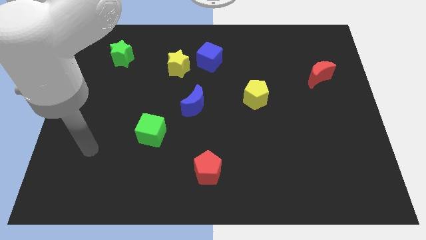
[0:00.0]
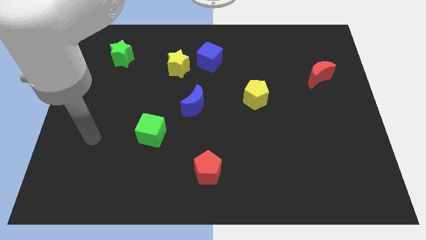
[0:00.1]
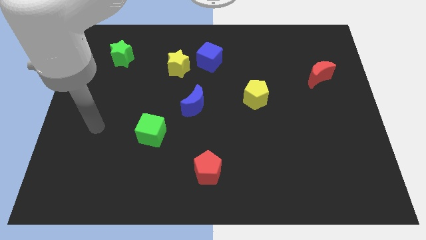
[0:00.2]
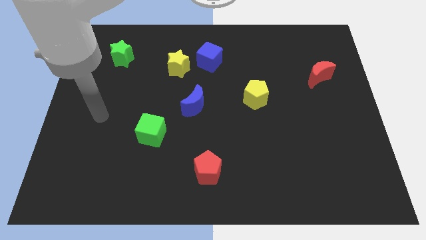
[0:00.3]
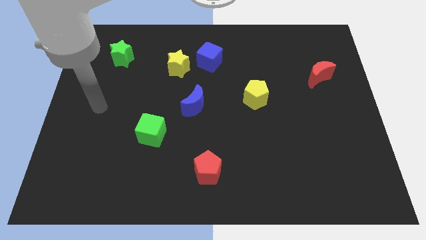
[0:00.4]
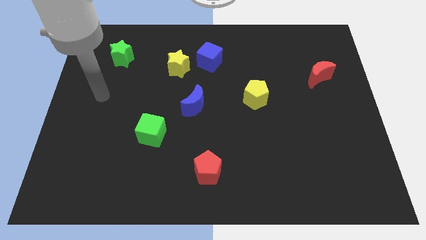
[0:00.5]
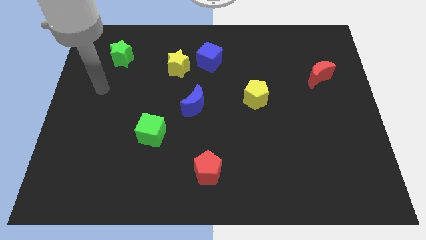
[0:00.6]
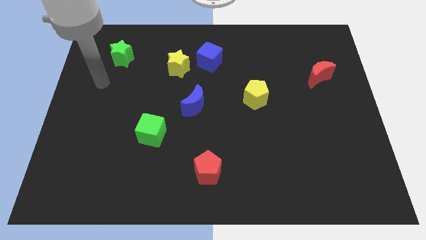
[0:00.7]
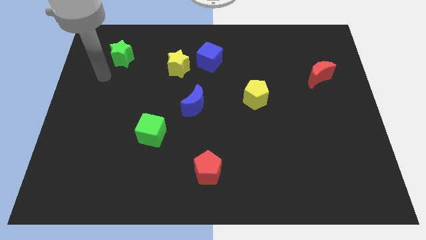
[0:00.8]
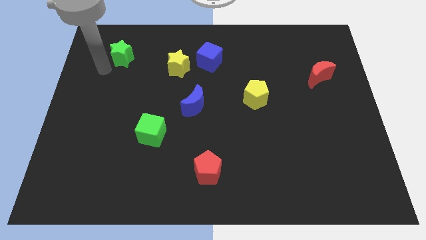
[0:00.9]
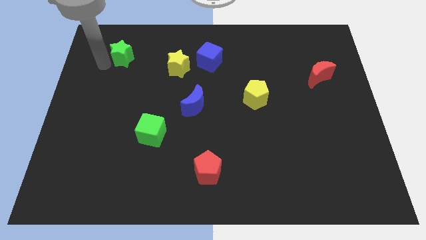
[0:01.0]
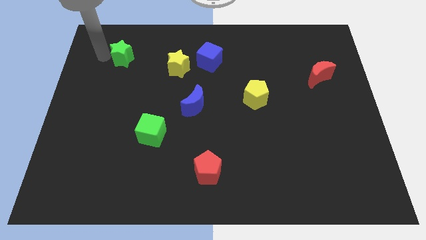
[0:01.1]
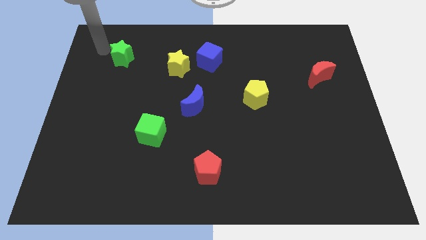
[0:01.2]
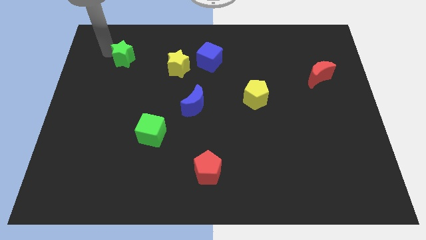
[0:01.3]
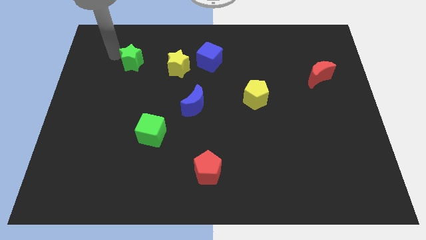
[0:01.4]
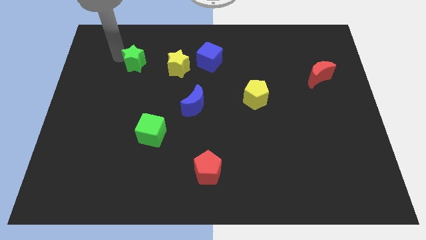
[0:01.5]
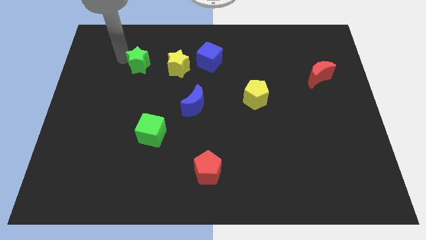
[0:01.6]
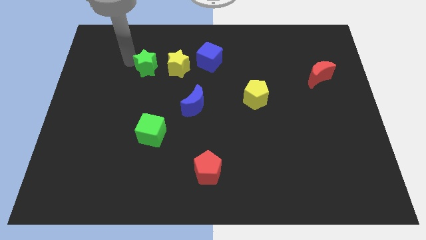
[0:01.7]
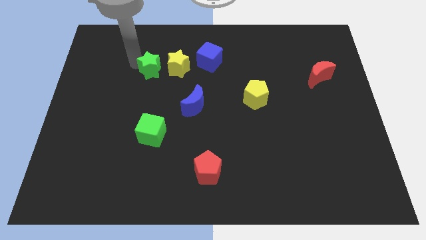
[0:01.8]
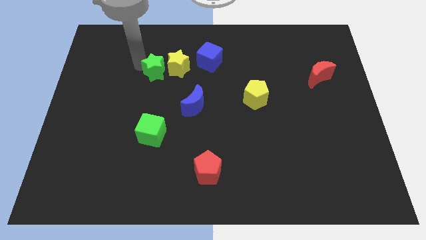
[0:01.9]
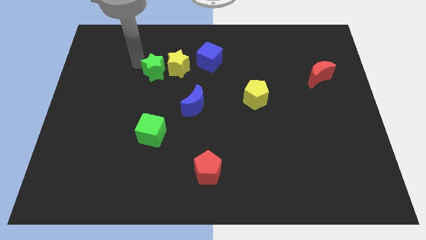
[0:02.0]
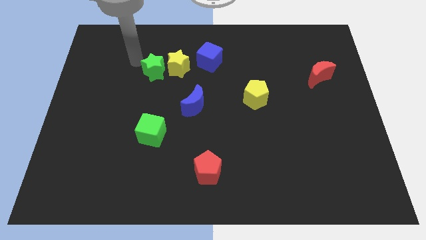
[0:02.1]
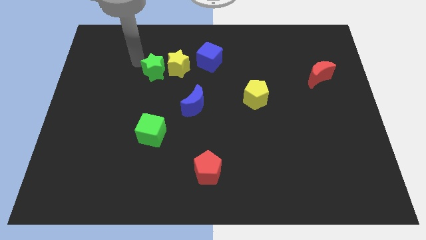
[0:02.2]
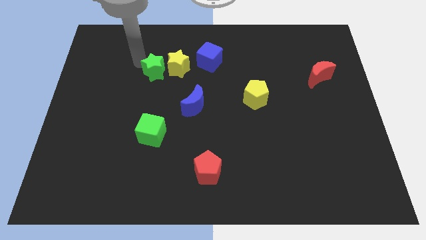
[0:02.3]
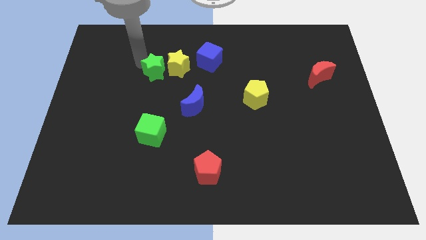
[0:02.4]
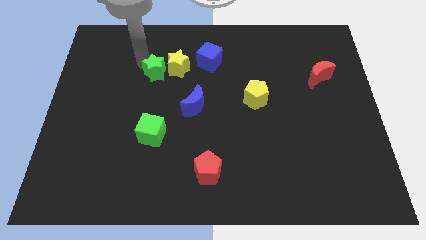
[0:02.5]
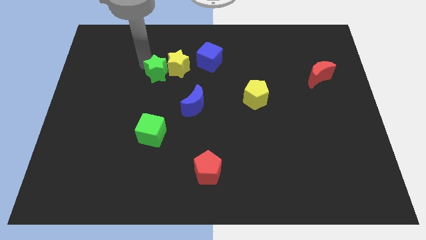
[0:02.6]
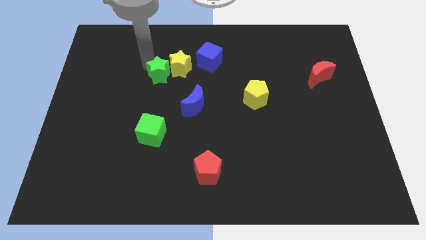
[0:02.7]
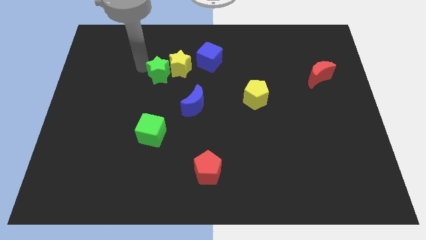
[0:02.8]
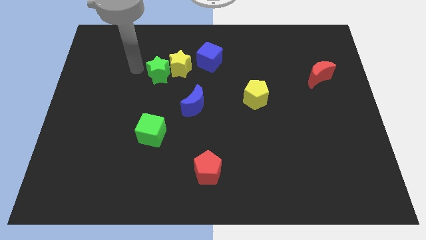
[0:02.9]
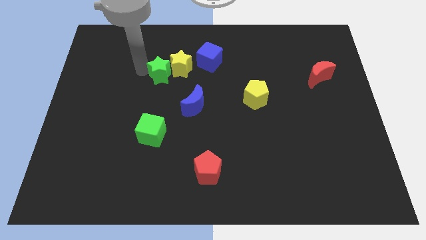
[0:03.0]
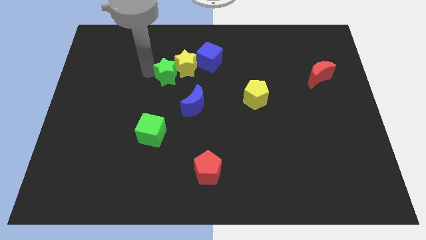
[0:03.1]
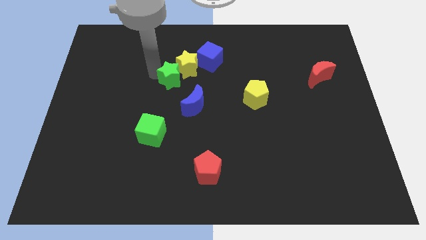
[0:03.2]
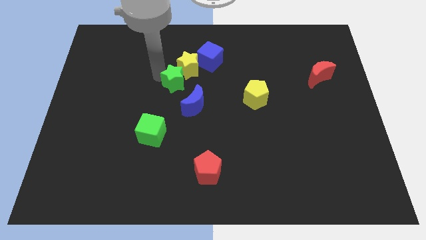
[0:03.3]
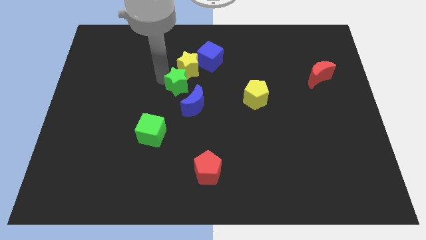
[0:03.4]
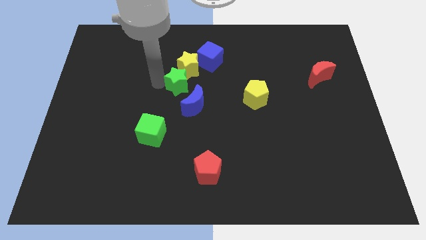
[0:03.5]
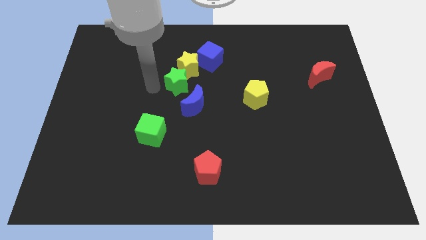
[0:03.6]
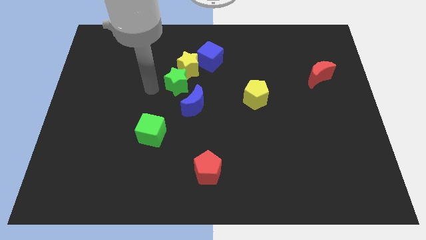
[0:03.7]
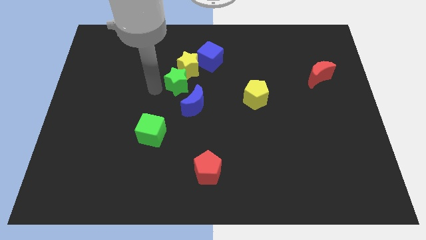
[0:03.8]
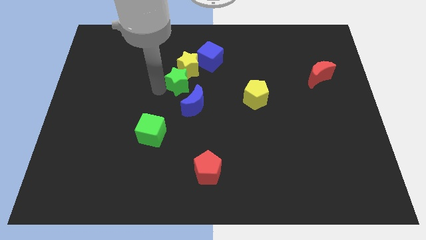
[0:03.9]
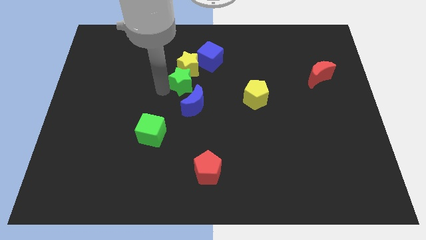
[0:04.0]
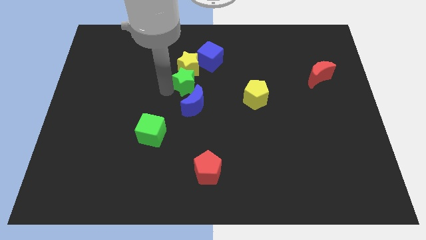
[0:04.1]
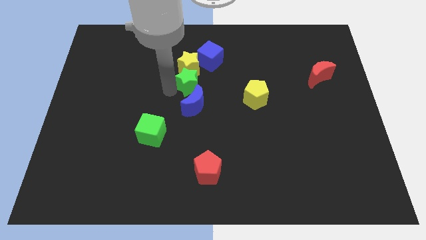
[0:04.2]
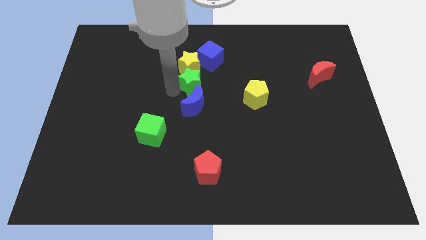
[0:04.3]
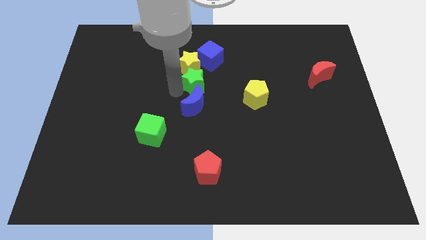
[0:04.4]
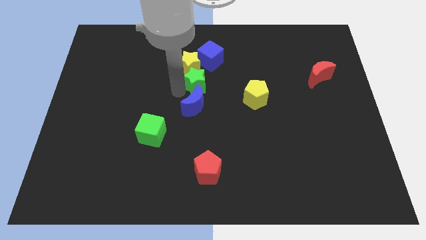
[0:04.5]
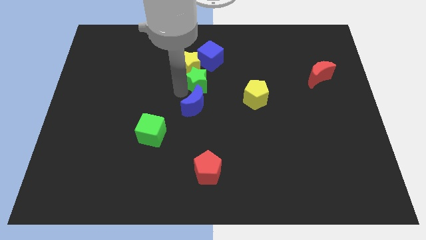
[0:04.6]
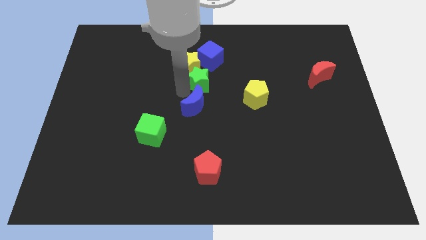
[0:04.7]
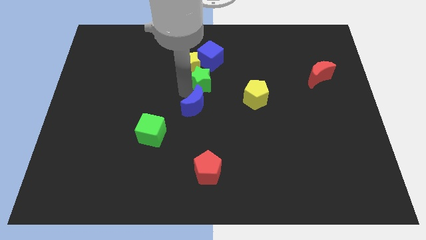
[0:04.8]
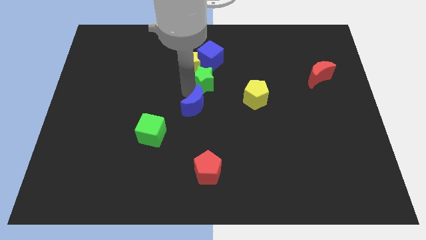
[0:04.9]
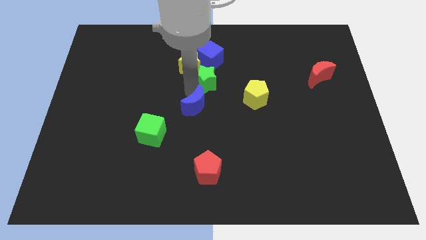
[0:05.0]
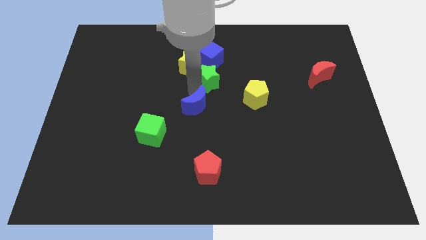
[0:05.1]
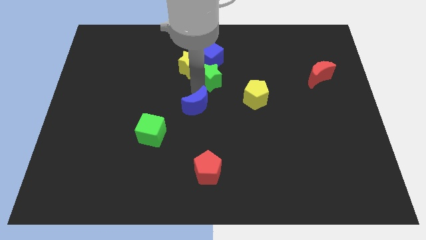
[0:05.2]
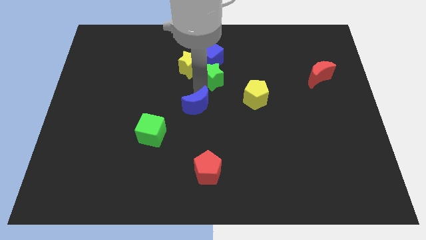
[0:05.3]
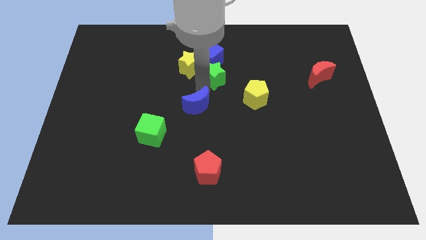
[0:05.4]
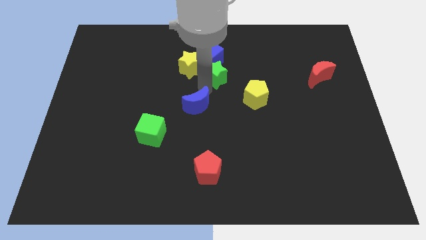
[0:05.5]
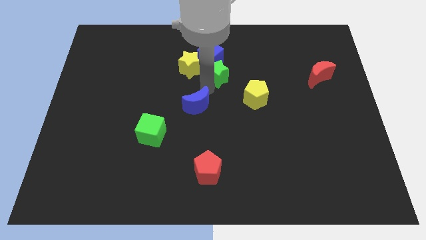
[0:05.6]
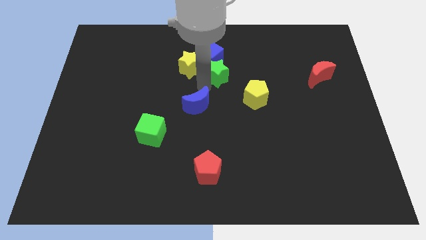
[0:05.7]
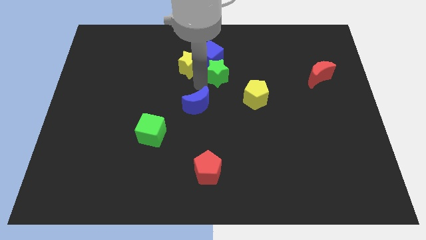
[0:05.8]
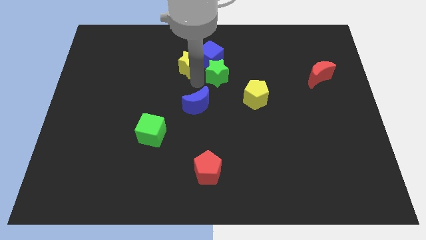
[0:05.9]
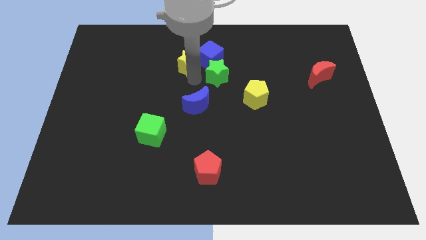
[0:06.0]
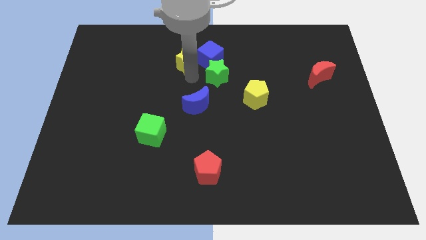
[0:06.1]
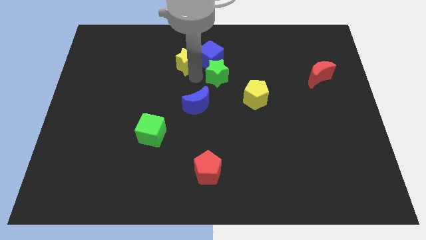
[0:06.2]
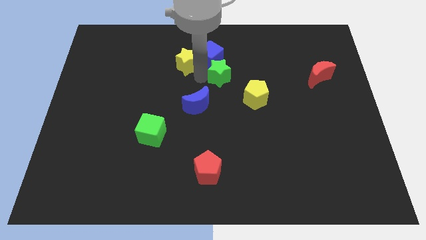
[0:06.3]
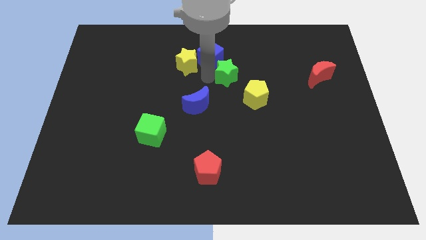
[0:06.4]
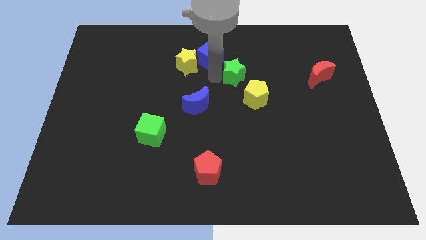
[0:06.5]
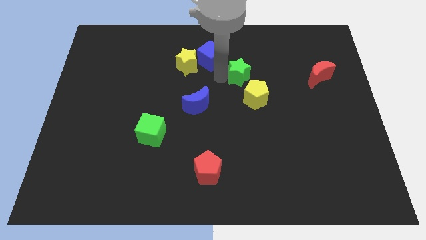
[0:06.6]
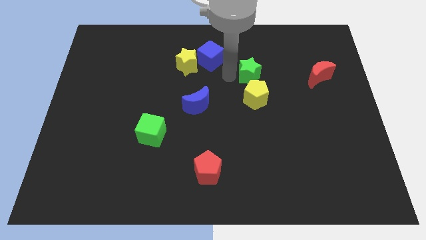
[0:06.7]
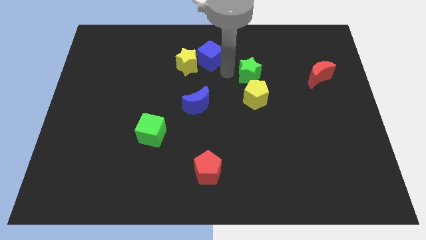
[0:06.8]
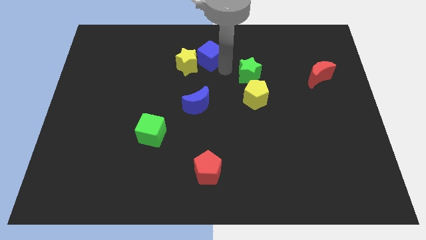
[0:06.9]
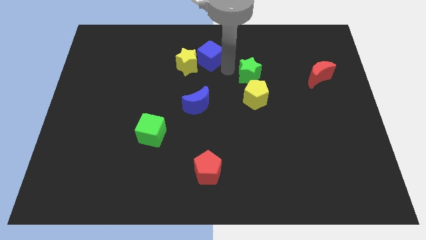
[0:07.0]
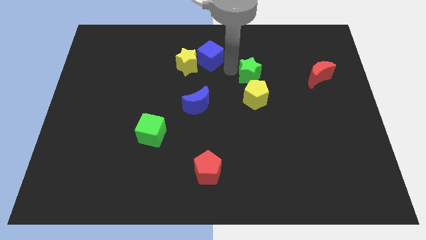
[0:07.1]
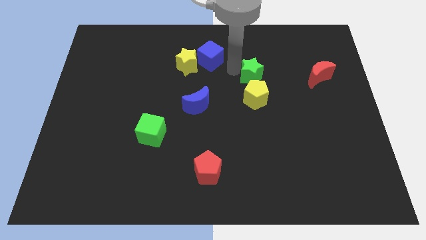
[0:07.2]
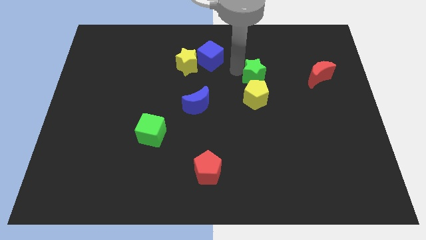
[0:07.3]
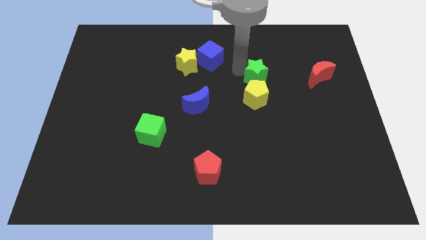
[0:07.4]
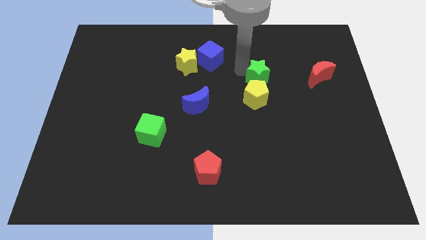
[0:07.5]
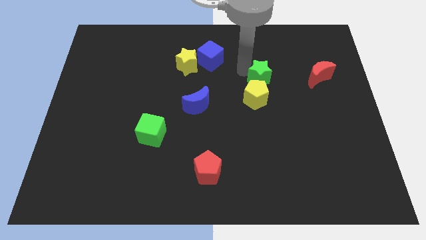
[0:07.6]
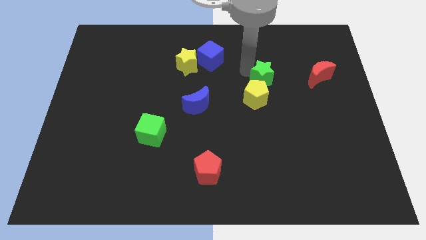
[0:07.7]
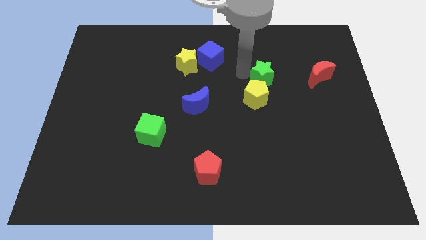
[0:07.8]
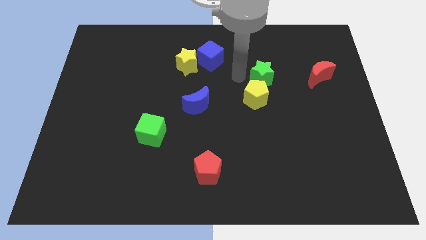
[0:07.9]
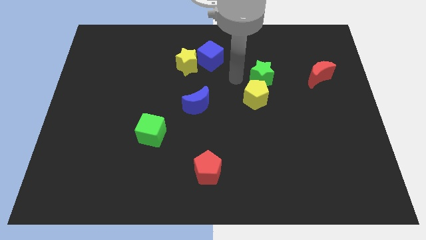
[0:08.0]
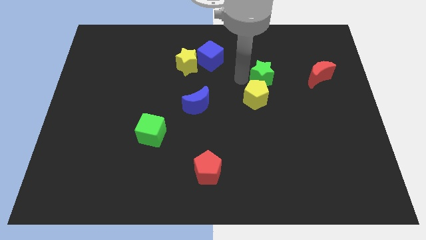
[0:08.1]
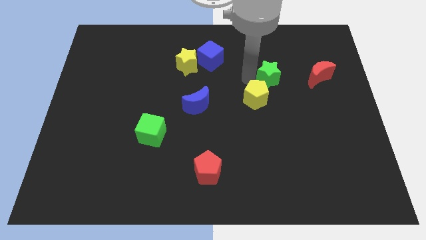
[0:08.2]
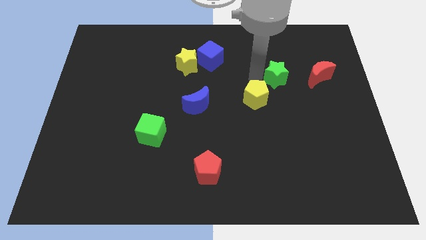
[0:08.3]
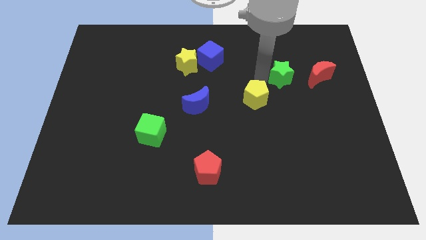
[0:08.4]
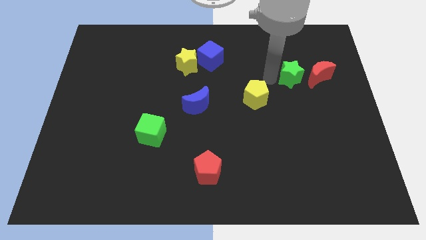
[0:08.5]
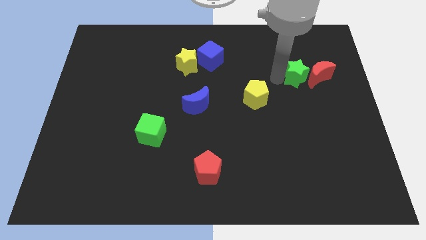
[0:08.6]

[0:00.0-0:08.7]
put the green star towards the red moon
